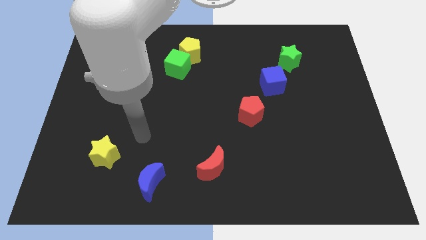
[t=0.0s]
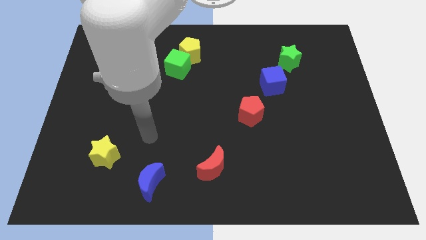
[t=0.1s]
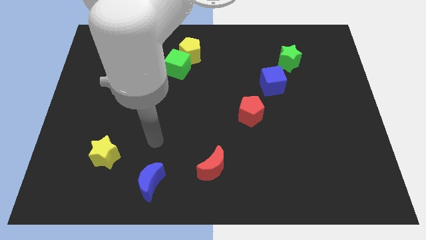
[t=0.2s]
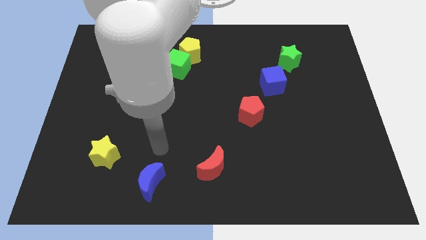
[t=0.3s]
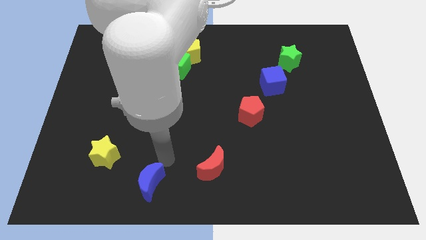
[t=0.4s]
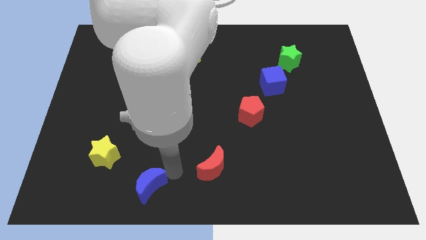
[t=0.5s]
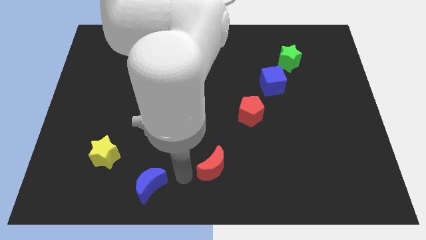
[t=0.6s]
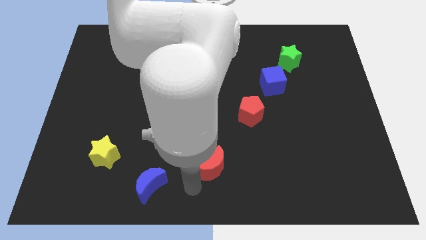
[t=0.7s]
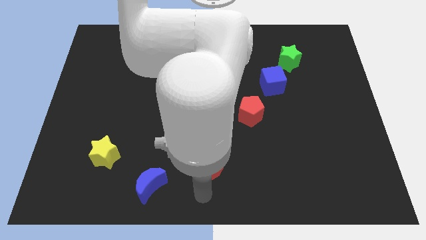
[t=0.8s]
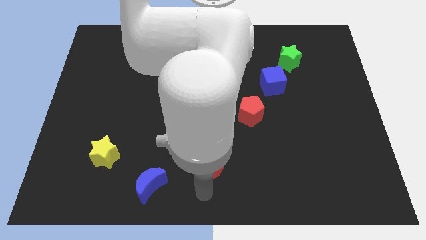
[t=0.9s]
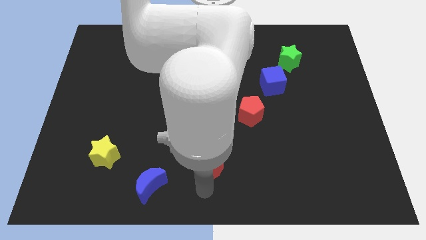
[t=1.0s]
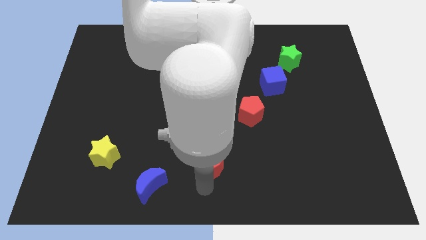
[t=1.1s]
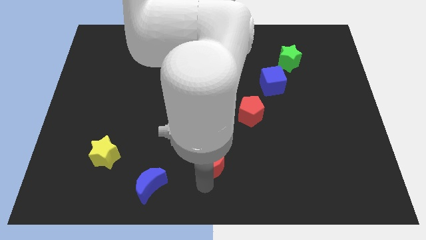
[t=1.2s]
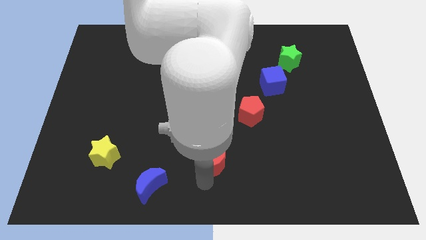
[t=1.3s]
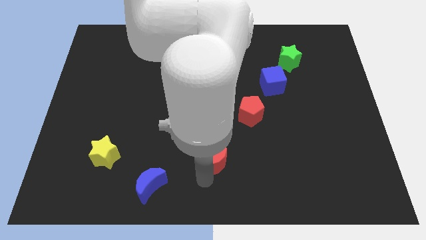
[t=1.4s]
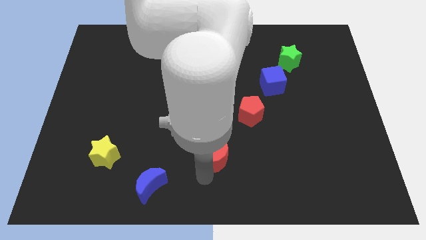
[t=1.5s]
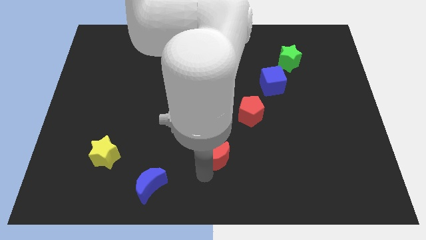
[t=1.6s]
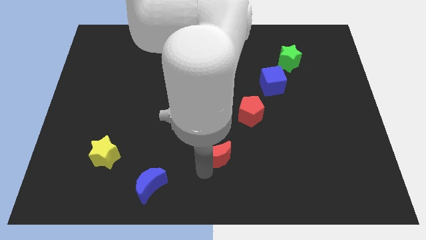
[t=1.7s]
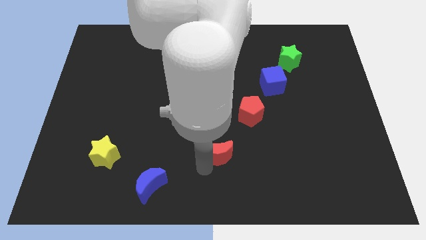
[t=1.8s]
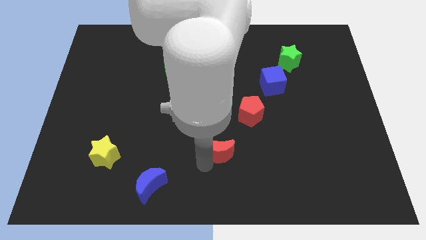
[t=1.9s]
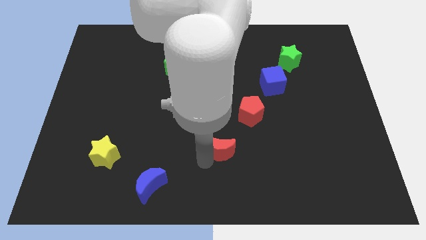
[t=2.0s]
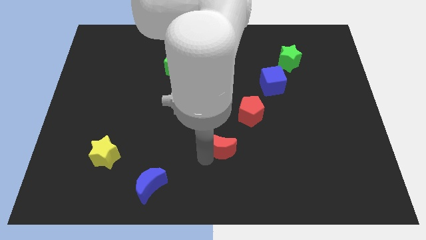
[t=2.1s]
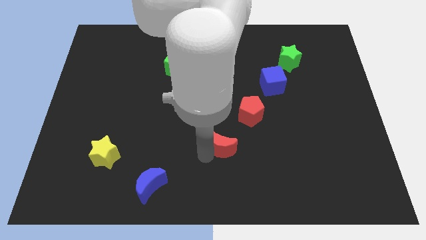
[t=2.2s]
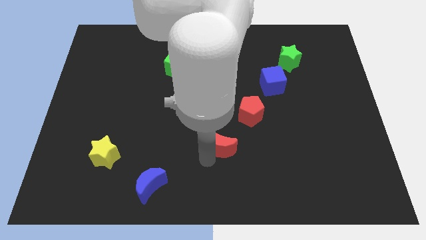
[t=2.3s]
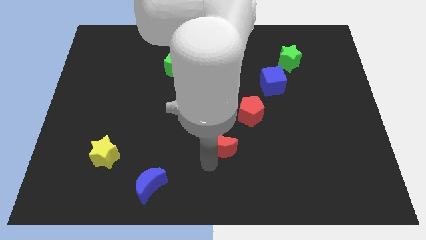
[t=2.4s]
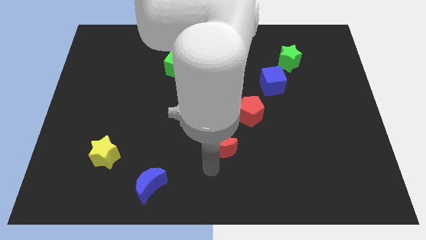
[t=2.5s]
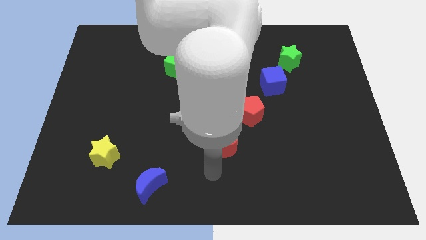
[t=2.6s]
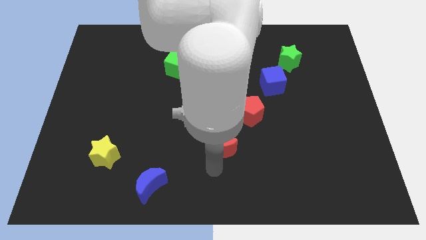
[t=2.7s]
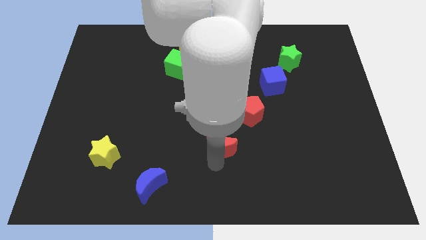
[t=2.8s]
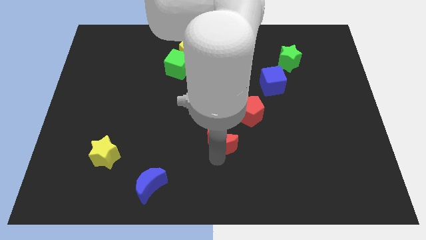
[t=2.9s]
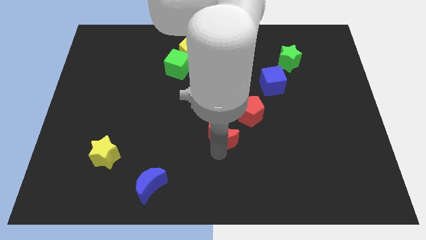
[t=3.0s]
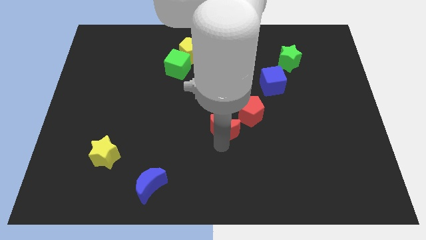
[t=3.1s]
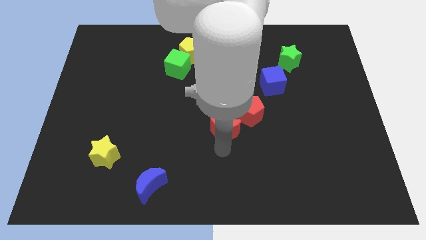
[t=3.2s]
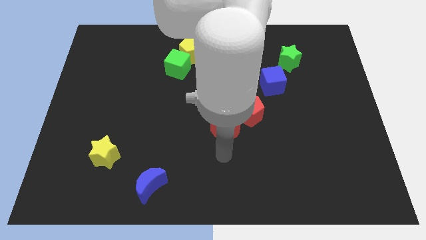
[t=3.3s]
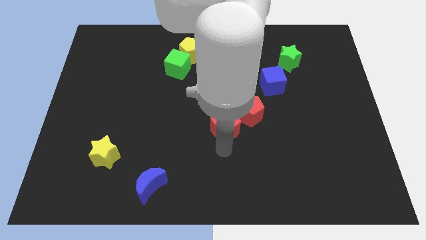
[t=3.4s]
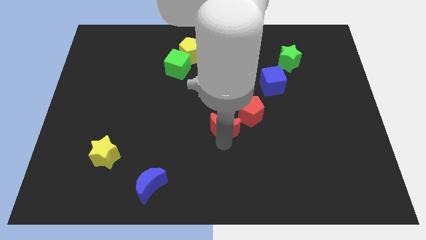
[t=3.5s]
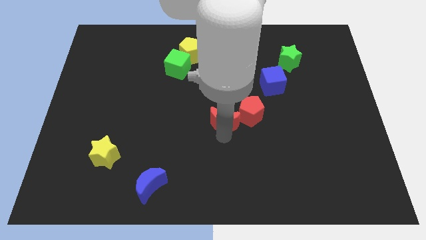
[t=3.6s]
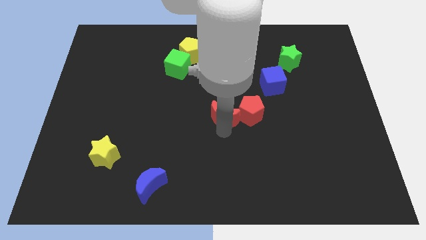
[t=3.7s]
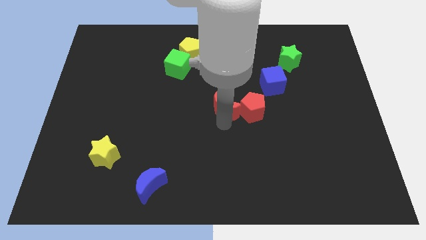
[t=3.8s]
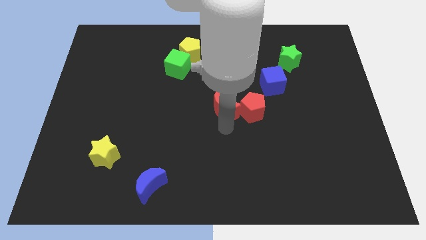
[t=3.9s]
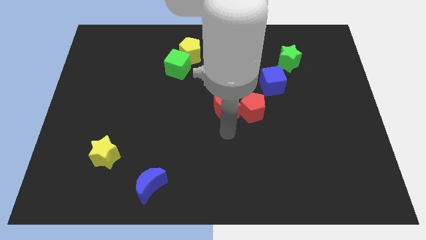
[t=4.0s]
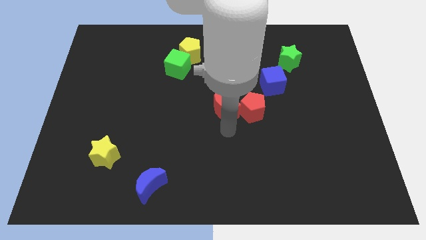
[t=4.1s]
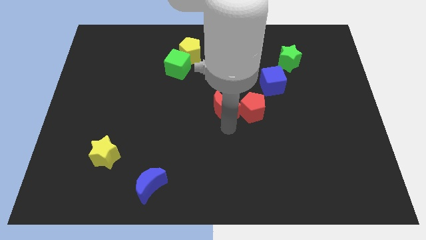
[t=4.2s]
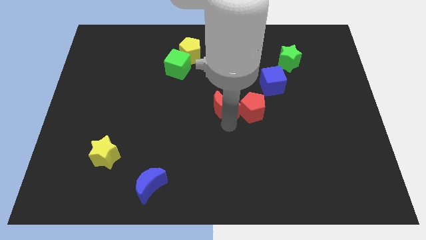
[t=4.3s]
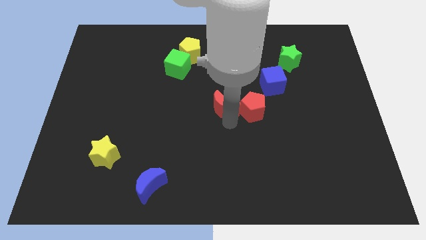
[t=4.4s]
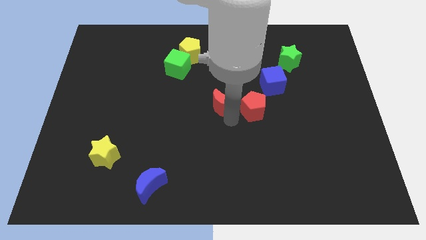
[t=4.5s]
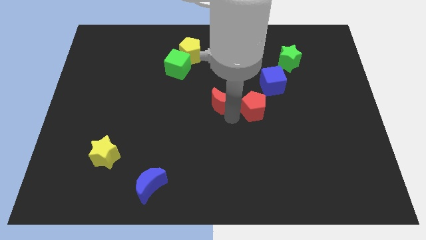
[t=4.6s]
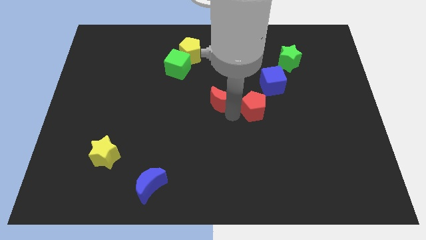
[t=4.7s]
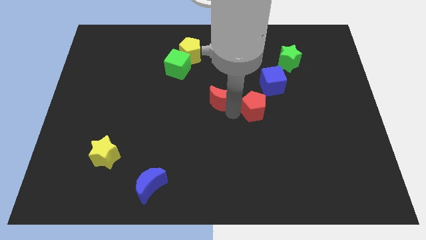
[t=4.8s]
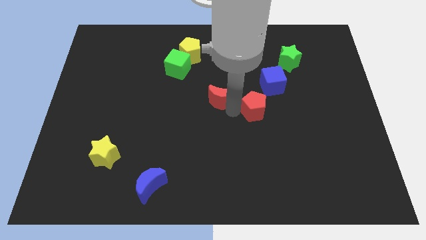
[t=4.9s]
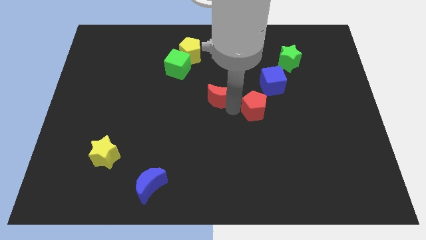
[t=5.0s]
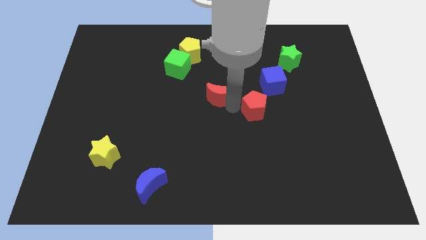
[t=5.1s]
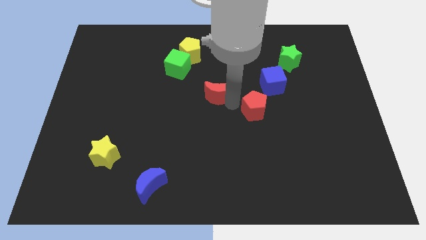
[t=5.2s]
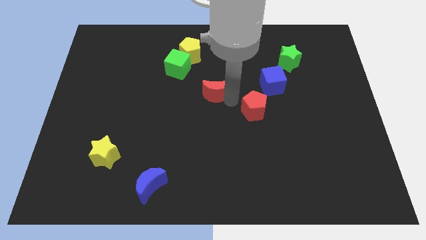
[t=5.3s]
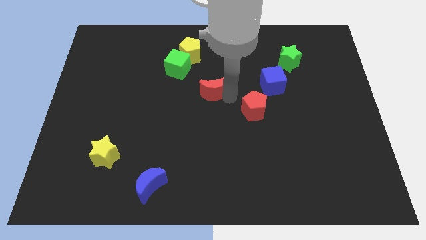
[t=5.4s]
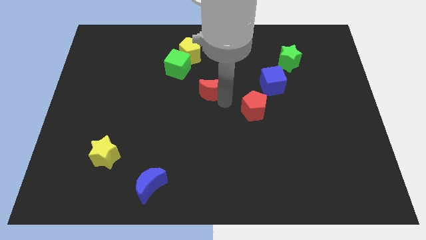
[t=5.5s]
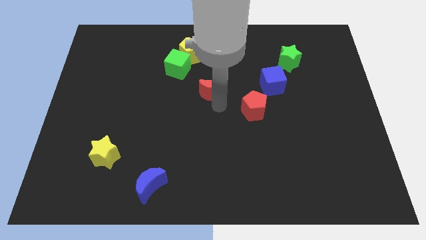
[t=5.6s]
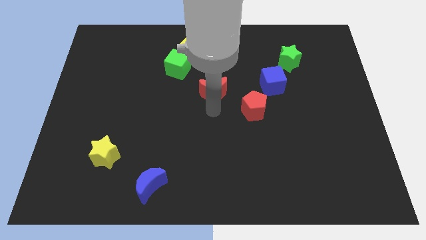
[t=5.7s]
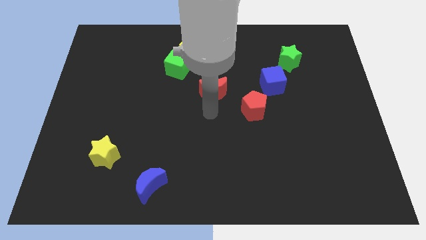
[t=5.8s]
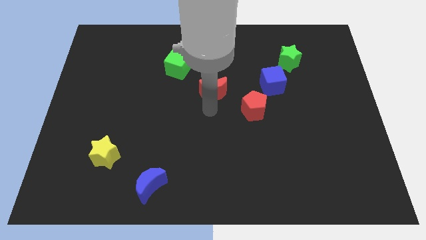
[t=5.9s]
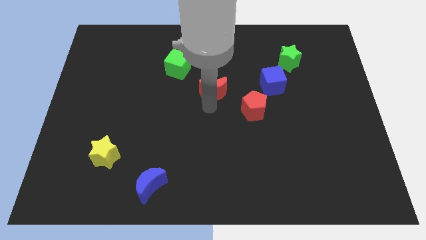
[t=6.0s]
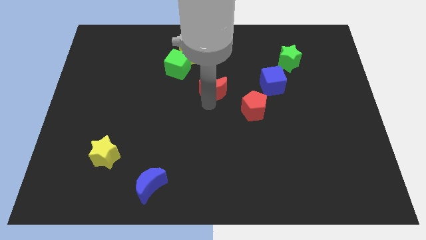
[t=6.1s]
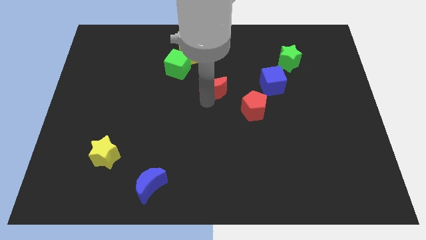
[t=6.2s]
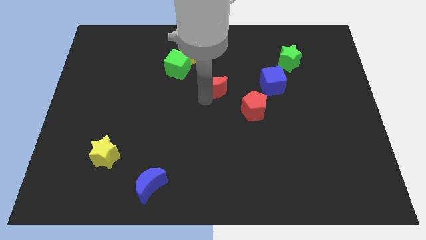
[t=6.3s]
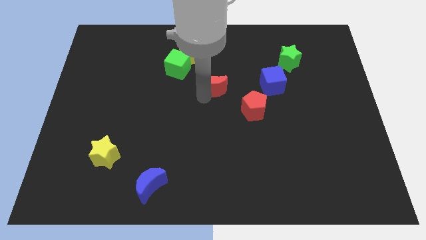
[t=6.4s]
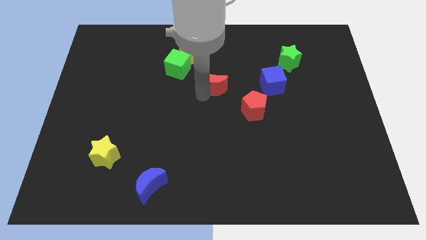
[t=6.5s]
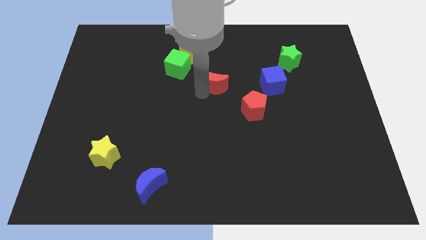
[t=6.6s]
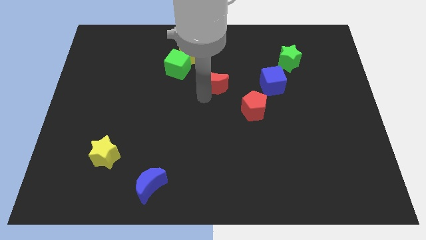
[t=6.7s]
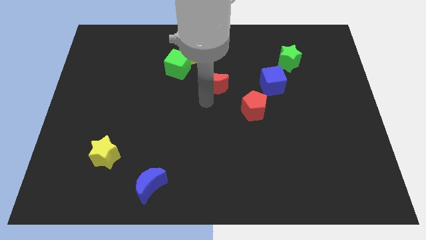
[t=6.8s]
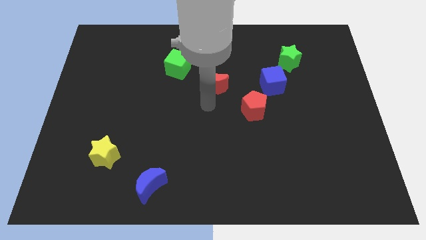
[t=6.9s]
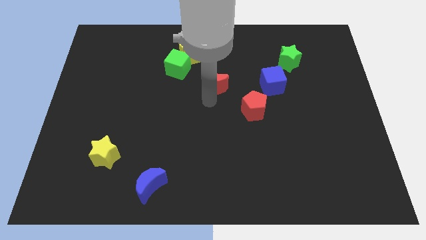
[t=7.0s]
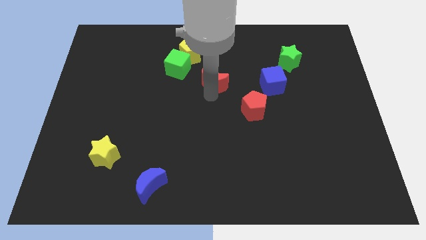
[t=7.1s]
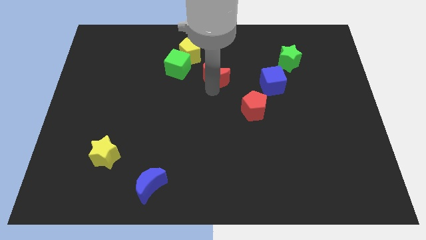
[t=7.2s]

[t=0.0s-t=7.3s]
slide the red moon to the right side of the green cube
